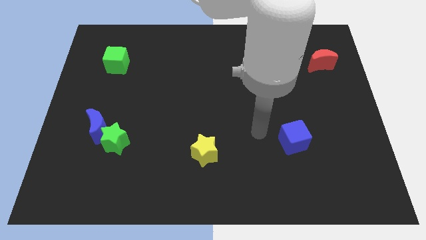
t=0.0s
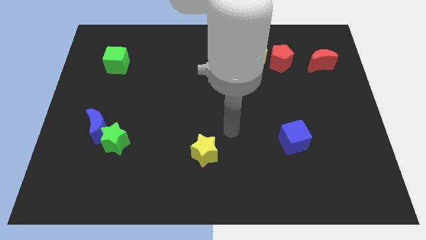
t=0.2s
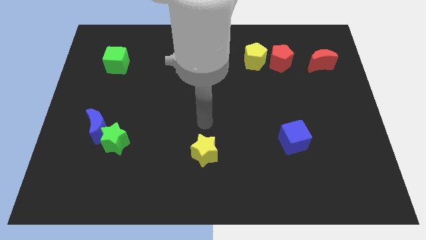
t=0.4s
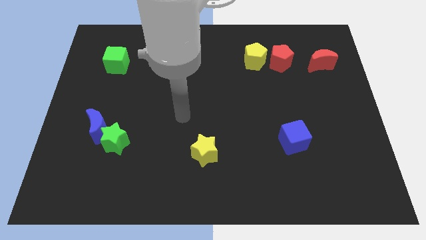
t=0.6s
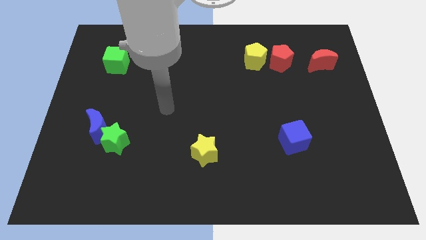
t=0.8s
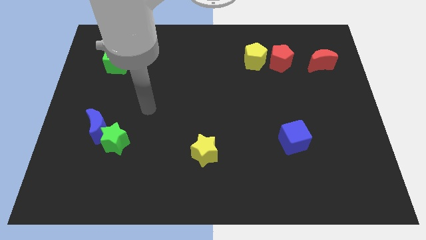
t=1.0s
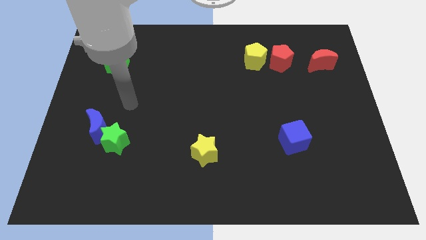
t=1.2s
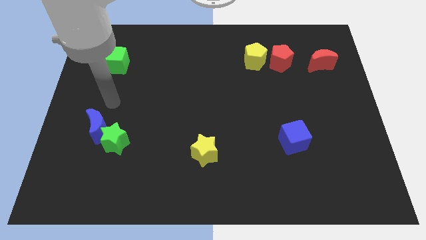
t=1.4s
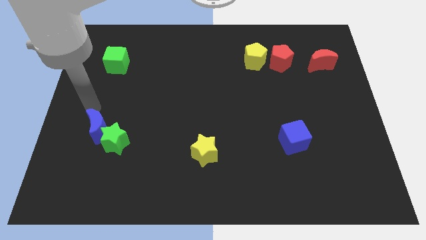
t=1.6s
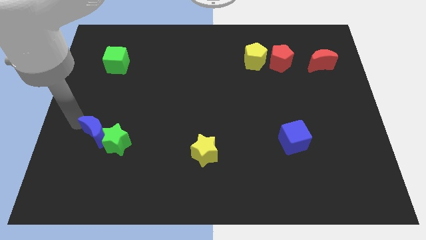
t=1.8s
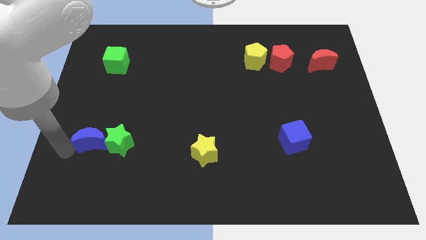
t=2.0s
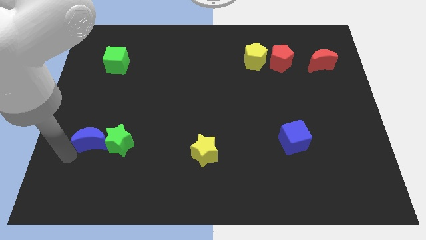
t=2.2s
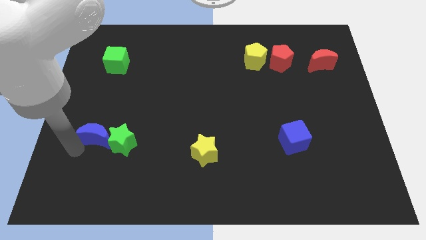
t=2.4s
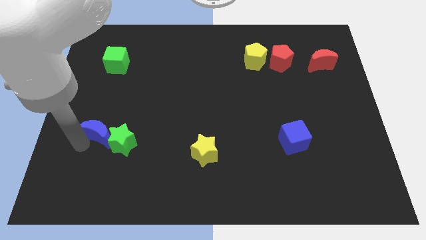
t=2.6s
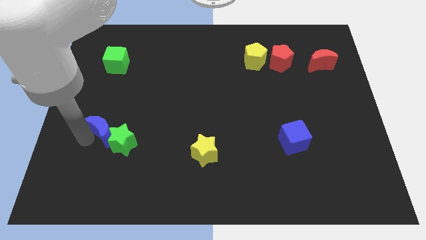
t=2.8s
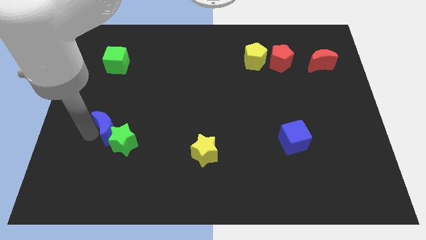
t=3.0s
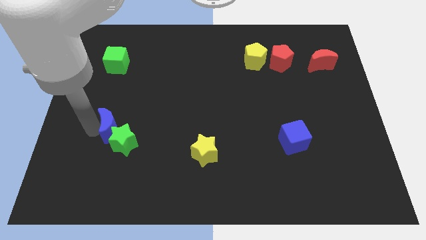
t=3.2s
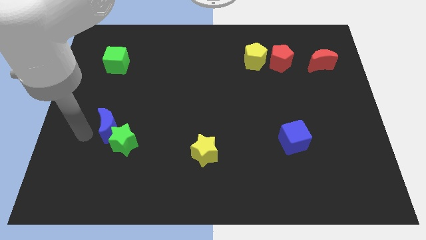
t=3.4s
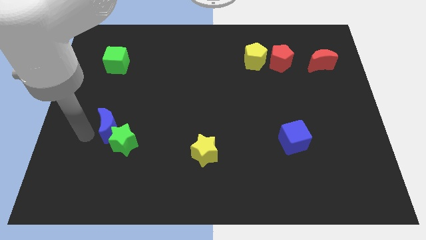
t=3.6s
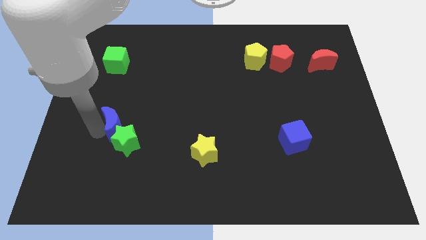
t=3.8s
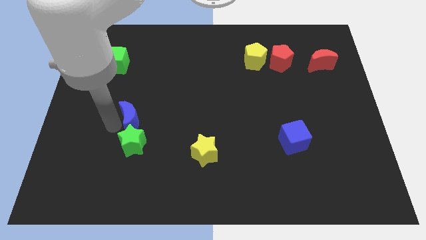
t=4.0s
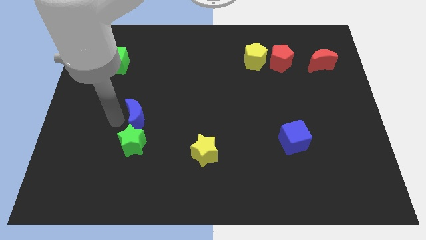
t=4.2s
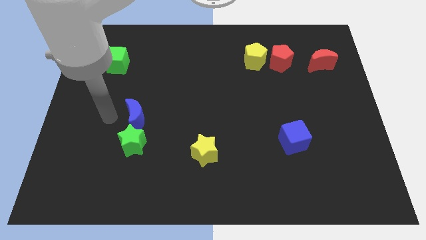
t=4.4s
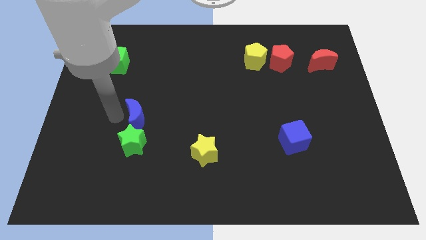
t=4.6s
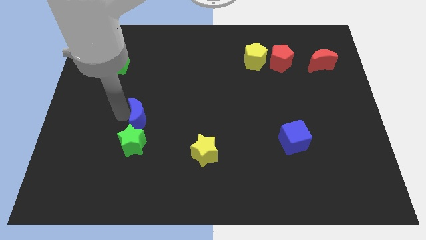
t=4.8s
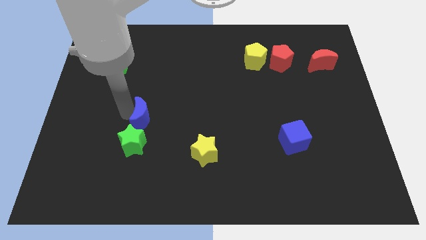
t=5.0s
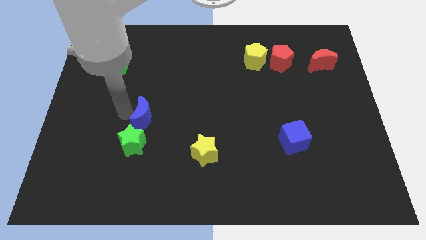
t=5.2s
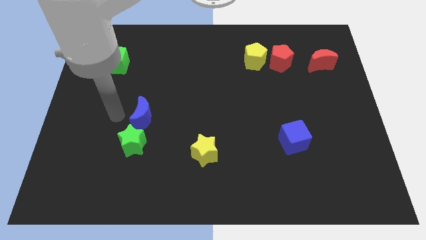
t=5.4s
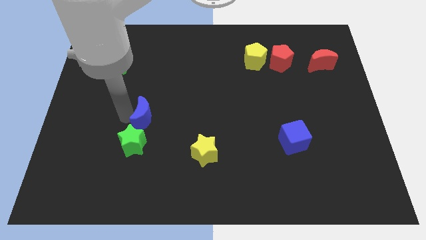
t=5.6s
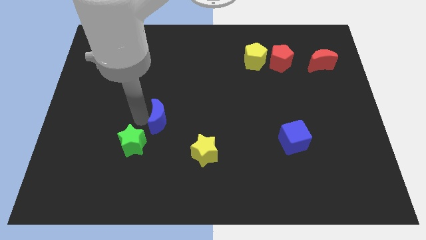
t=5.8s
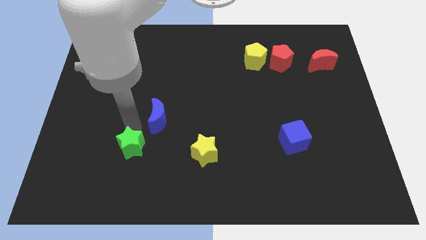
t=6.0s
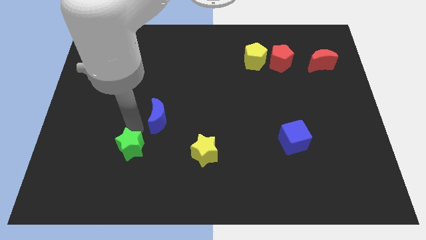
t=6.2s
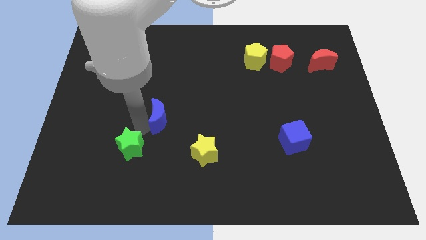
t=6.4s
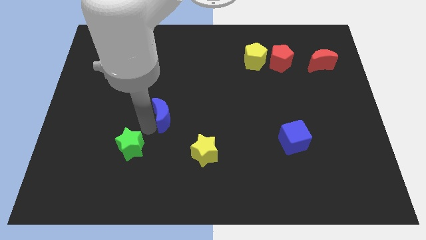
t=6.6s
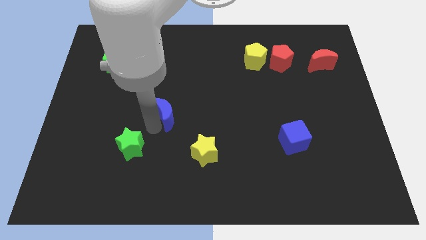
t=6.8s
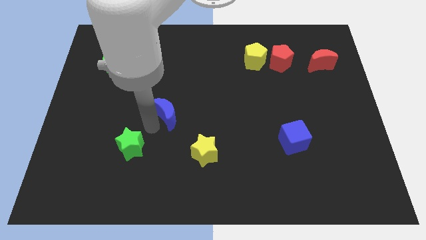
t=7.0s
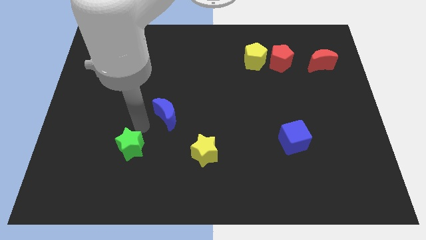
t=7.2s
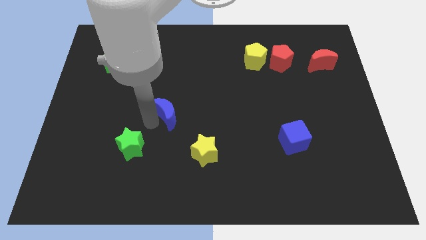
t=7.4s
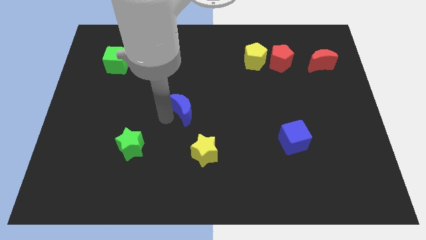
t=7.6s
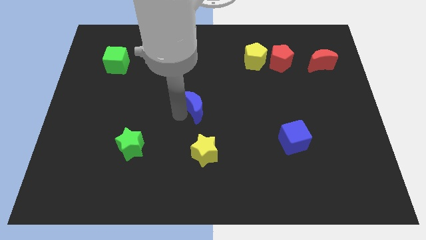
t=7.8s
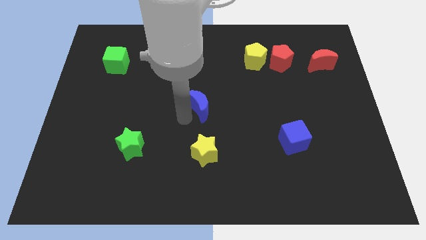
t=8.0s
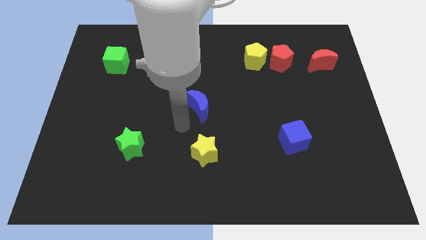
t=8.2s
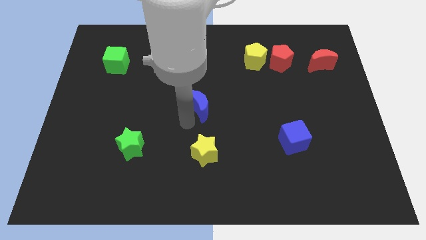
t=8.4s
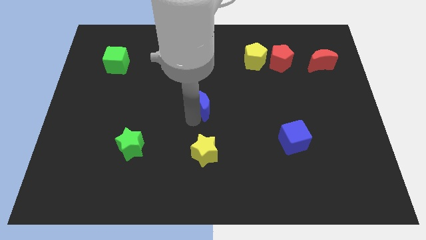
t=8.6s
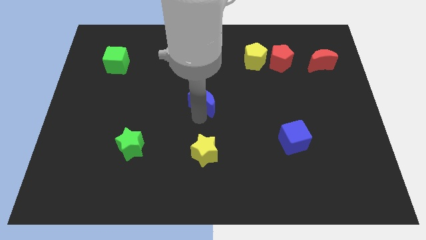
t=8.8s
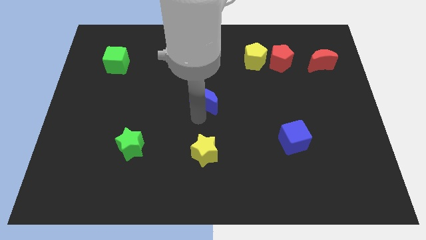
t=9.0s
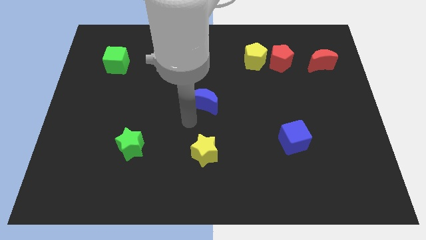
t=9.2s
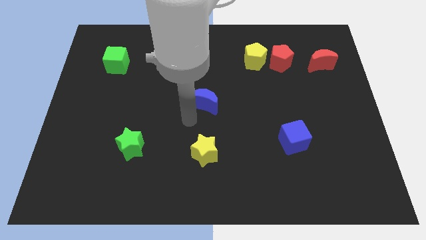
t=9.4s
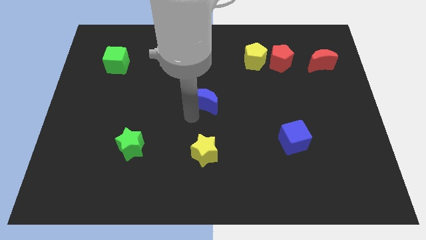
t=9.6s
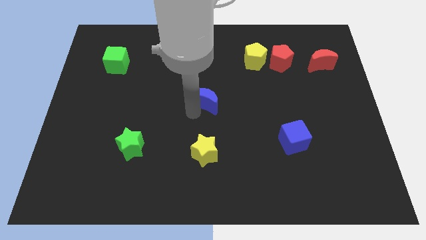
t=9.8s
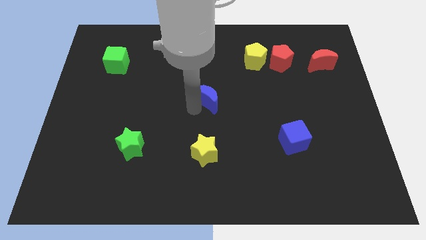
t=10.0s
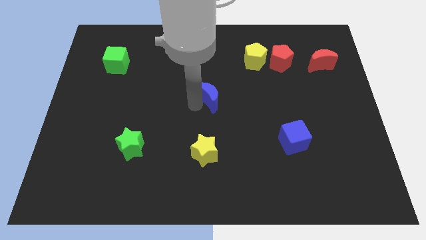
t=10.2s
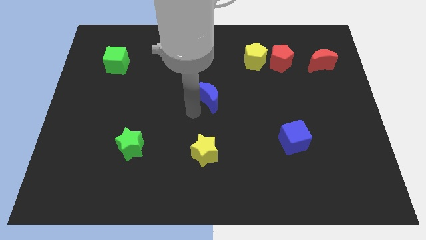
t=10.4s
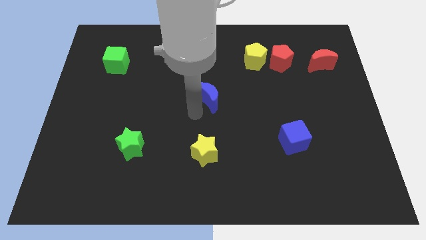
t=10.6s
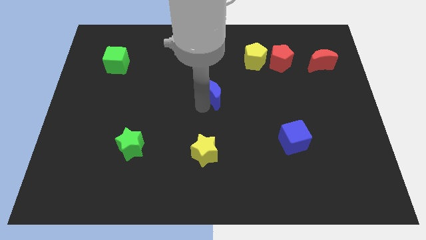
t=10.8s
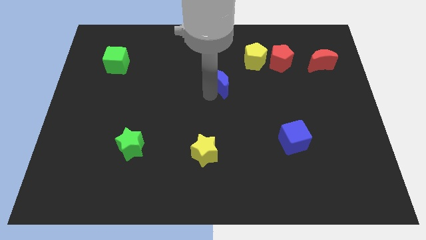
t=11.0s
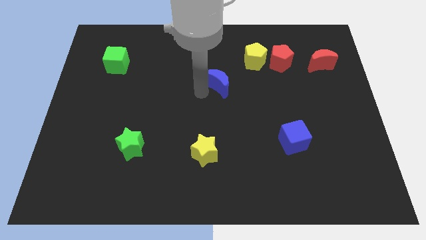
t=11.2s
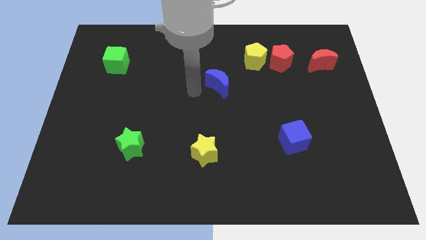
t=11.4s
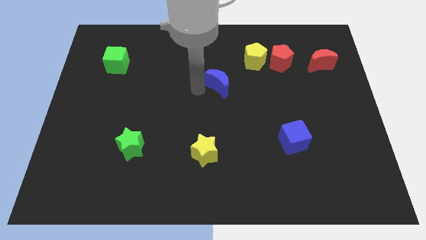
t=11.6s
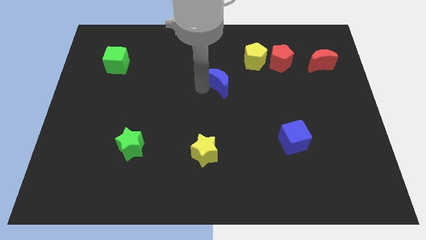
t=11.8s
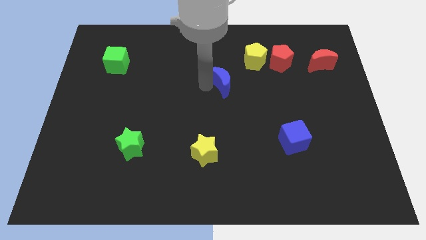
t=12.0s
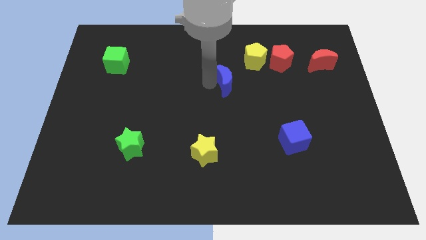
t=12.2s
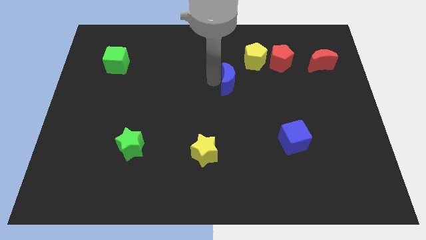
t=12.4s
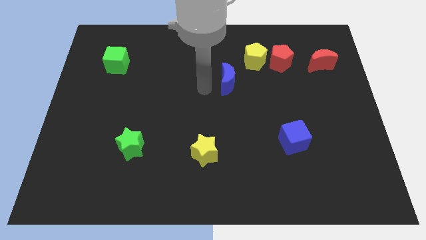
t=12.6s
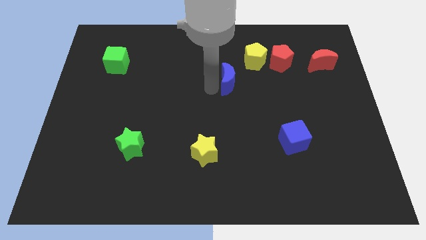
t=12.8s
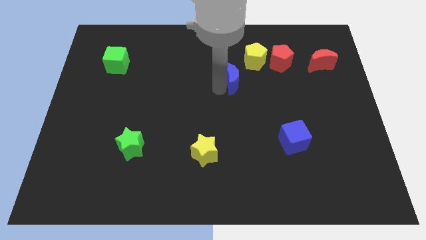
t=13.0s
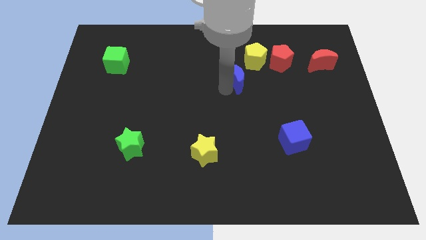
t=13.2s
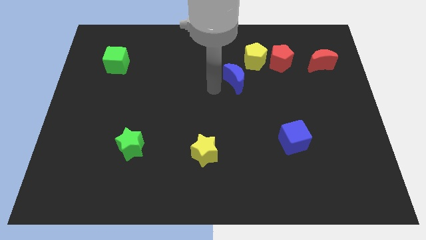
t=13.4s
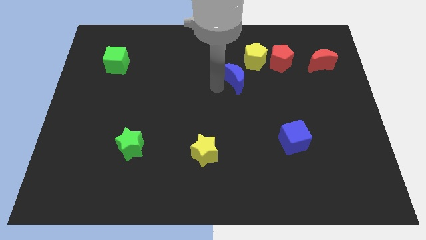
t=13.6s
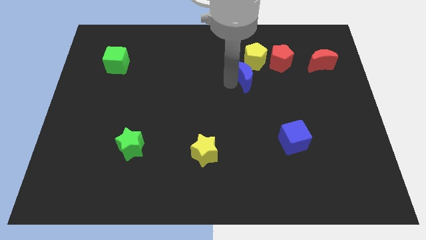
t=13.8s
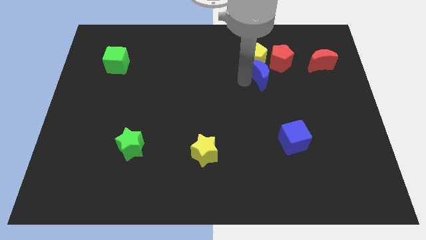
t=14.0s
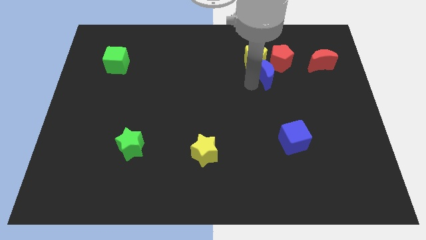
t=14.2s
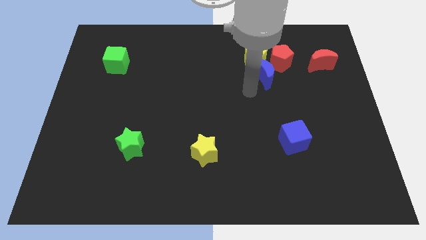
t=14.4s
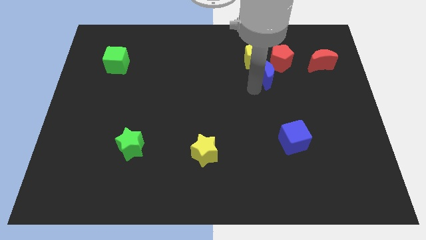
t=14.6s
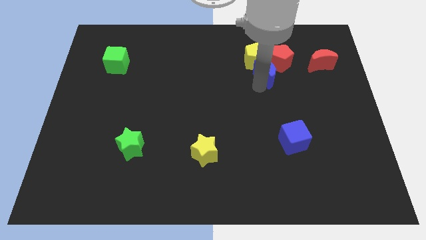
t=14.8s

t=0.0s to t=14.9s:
push the blue moon to the red pentagon
